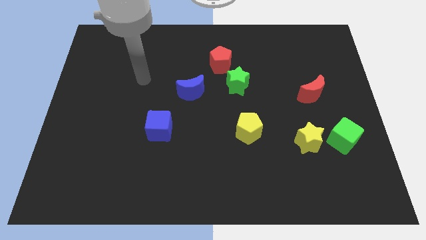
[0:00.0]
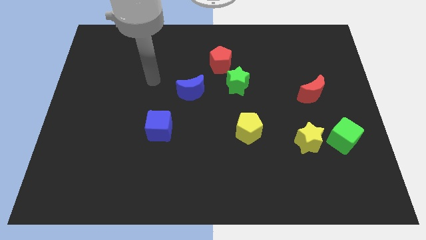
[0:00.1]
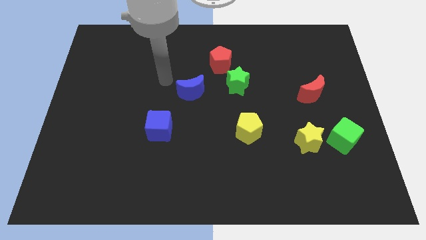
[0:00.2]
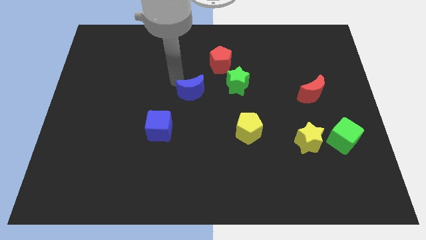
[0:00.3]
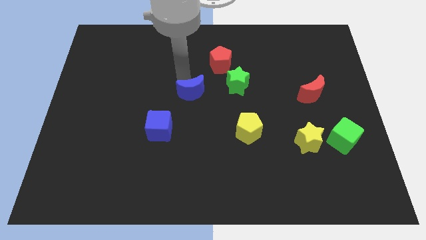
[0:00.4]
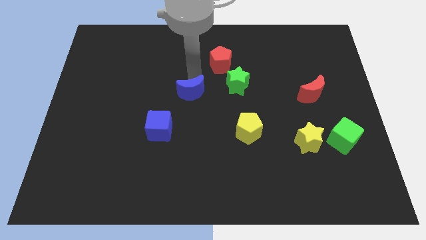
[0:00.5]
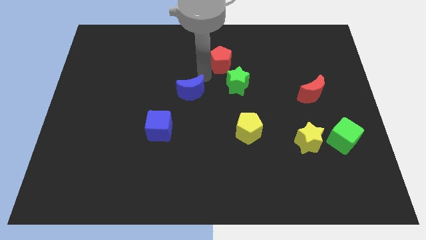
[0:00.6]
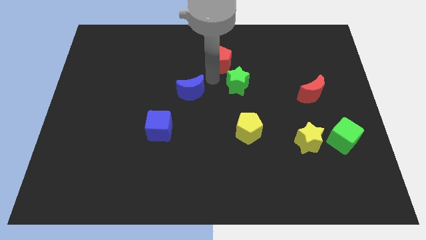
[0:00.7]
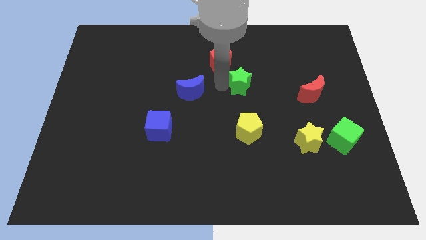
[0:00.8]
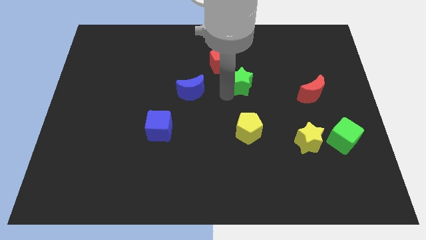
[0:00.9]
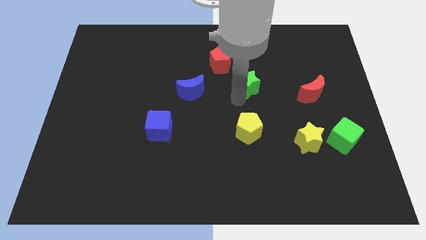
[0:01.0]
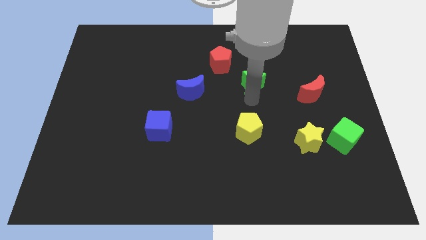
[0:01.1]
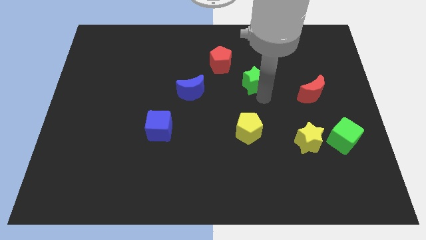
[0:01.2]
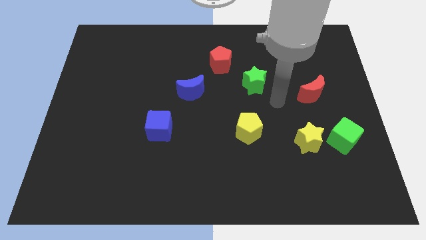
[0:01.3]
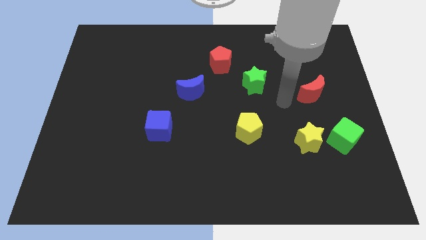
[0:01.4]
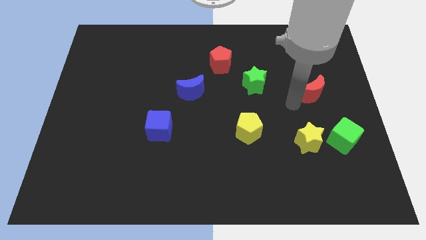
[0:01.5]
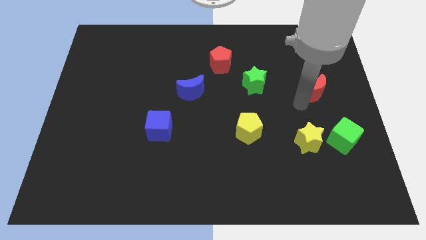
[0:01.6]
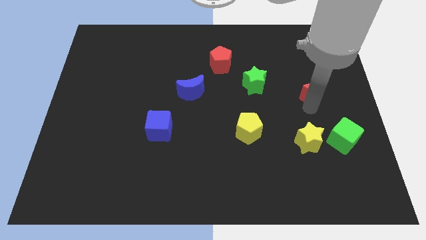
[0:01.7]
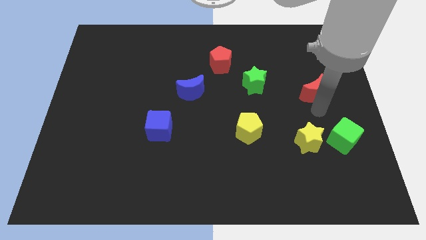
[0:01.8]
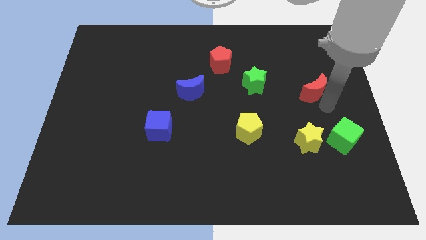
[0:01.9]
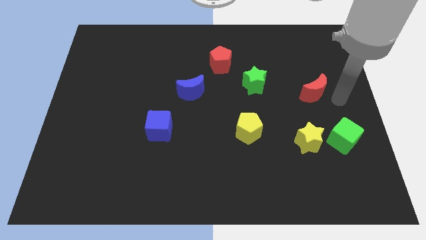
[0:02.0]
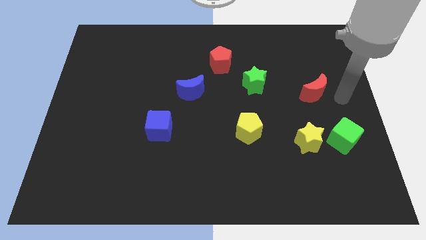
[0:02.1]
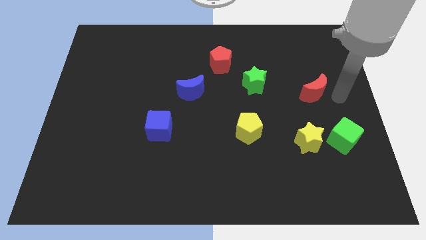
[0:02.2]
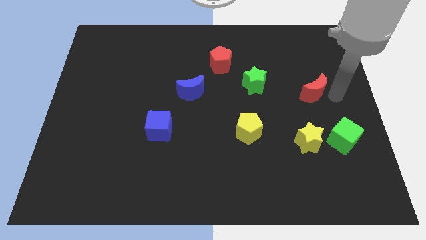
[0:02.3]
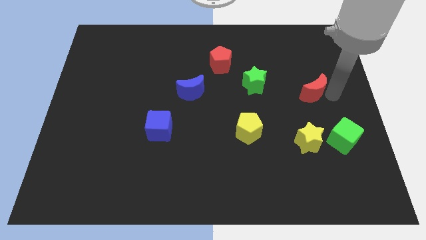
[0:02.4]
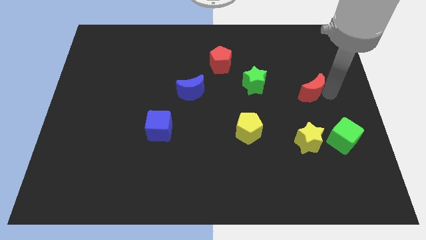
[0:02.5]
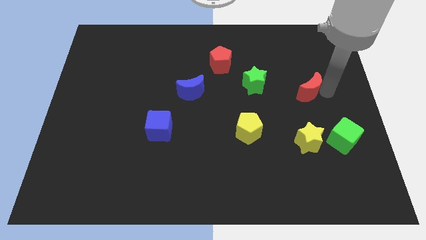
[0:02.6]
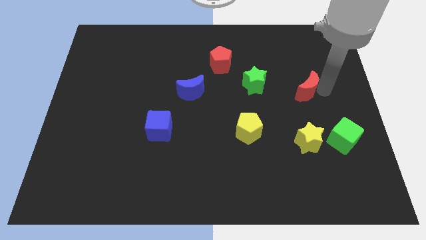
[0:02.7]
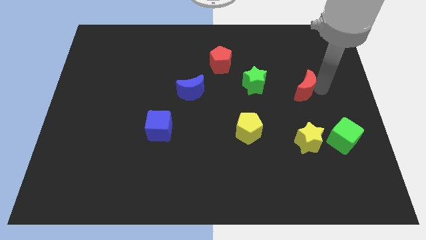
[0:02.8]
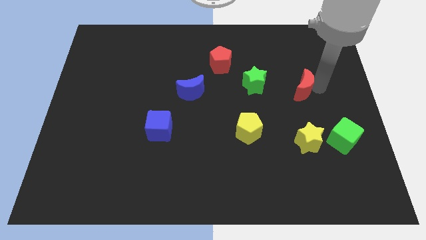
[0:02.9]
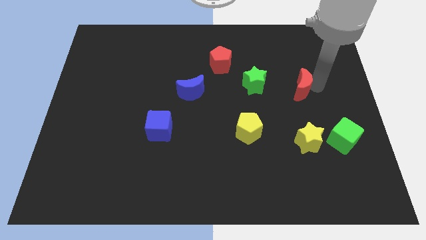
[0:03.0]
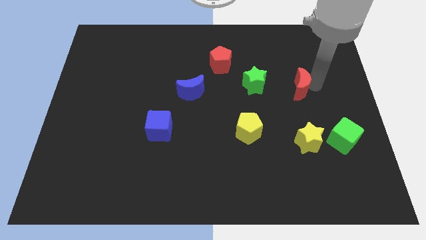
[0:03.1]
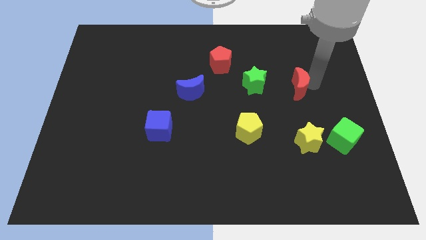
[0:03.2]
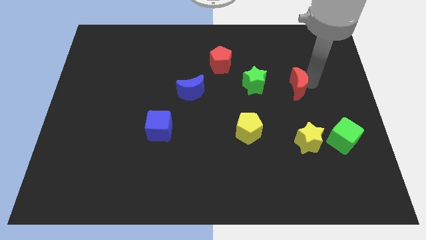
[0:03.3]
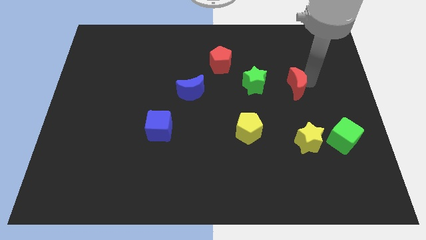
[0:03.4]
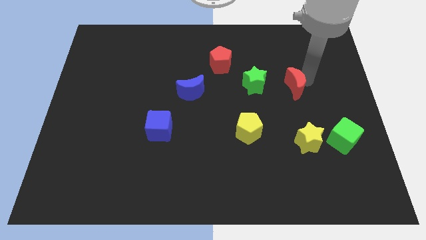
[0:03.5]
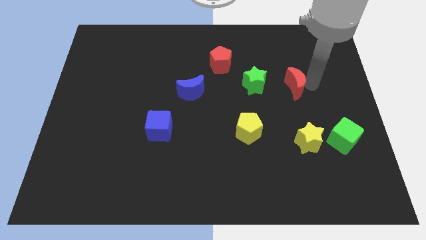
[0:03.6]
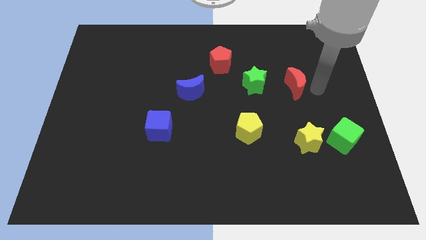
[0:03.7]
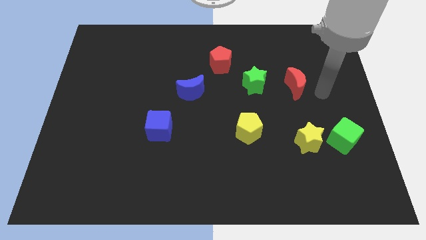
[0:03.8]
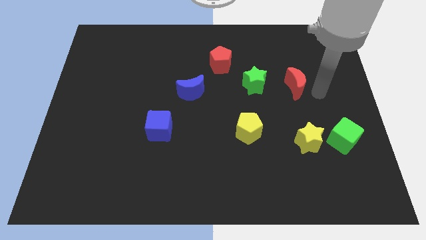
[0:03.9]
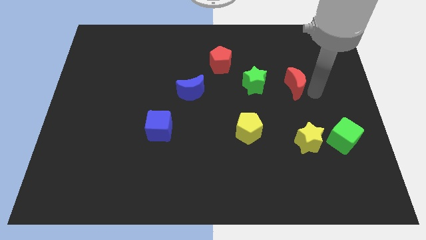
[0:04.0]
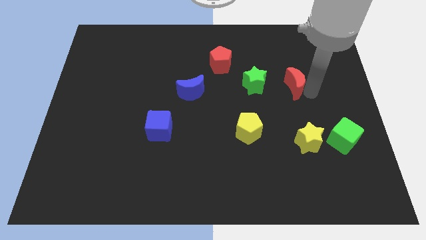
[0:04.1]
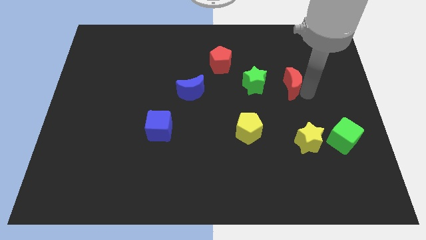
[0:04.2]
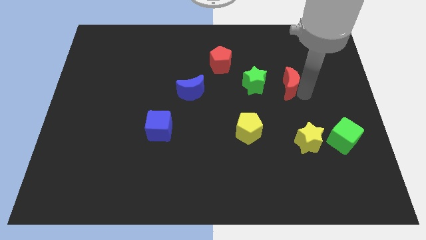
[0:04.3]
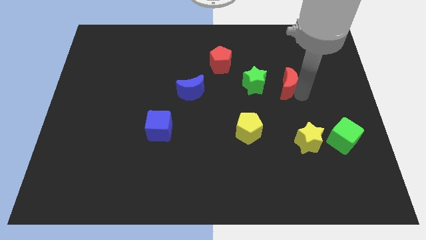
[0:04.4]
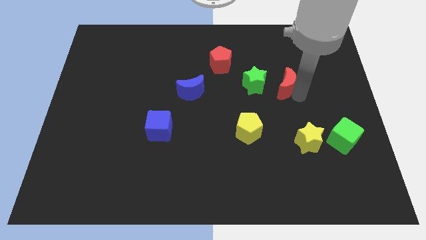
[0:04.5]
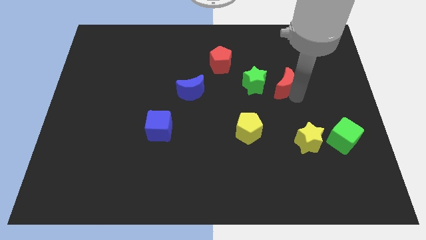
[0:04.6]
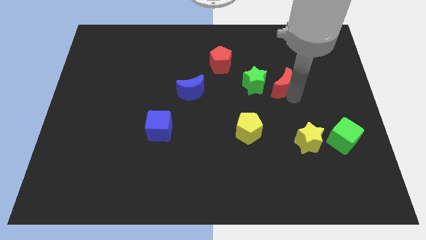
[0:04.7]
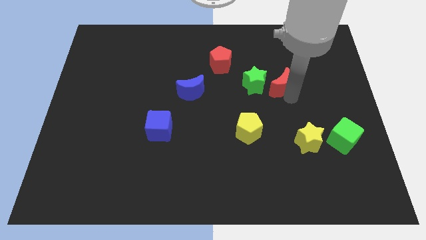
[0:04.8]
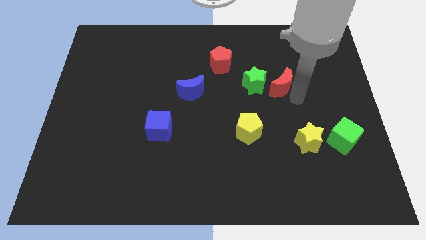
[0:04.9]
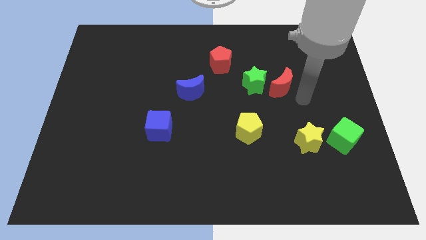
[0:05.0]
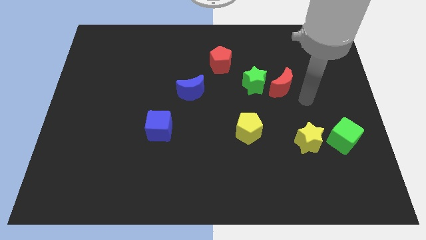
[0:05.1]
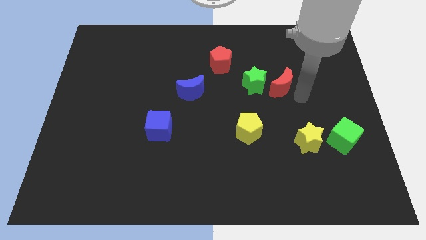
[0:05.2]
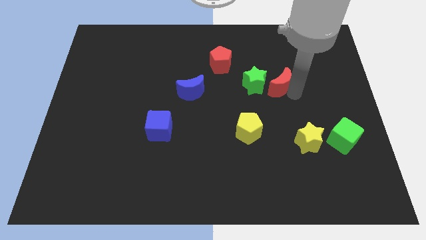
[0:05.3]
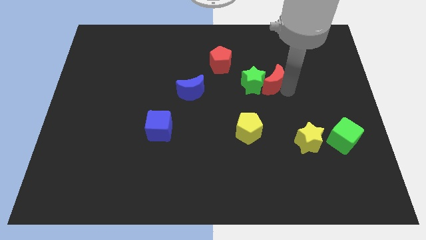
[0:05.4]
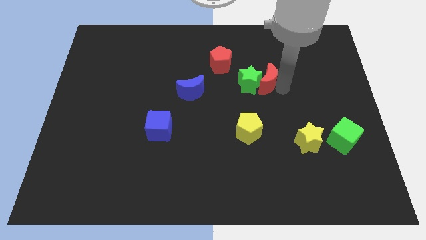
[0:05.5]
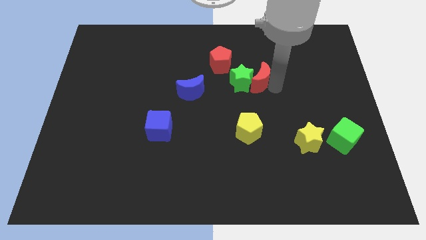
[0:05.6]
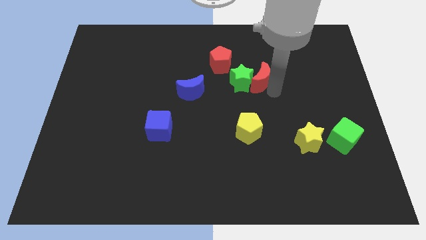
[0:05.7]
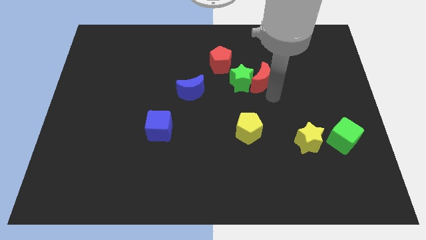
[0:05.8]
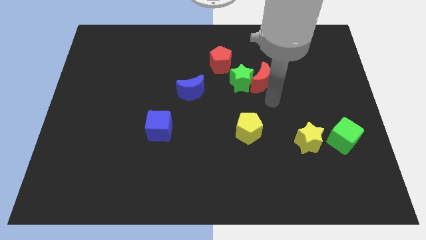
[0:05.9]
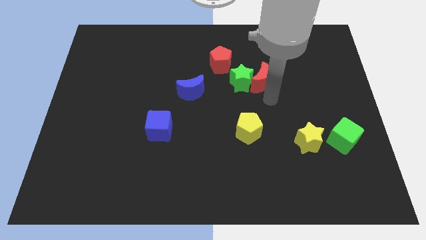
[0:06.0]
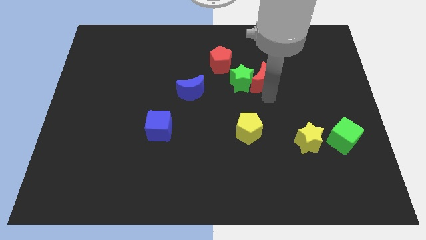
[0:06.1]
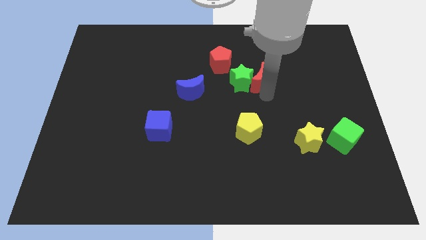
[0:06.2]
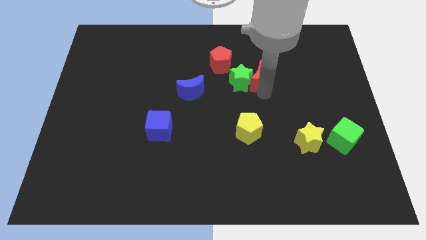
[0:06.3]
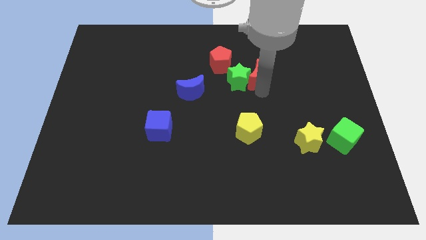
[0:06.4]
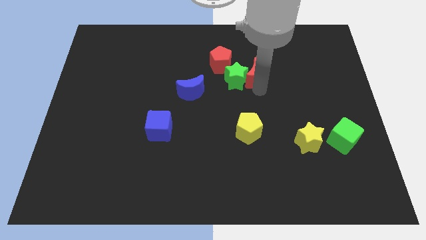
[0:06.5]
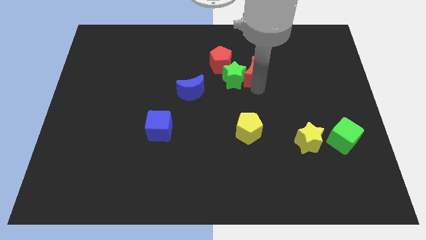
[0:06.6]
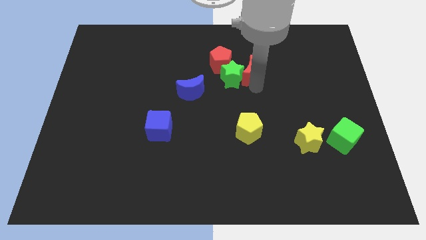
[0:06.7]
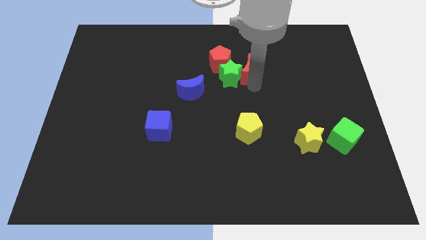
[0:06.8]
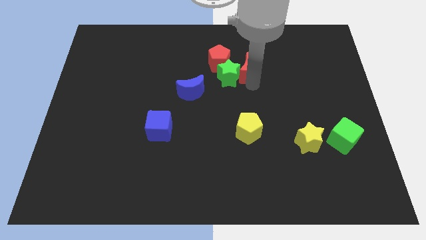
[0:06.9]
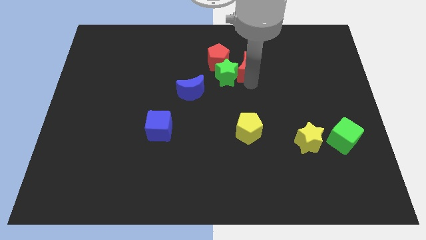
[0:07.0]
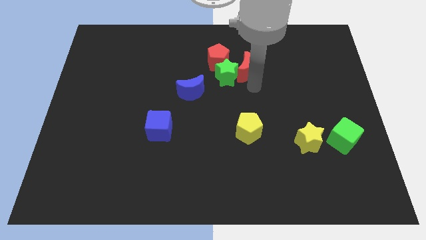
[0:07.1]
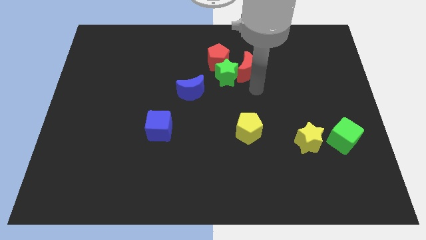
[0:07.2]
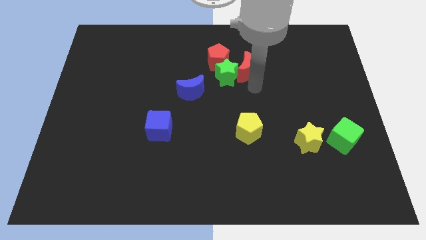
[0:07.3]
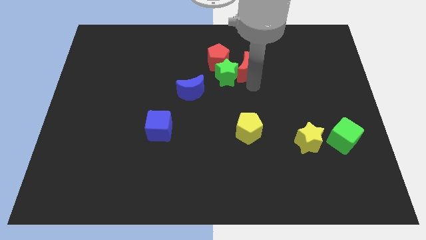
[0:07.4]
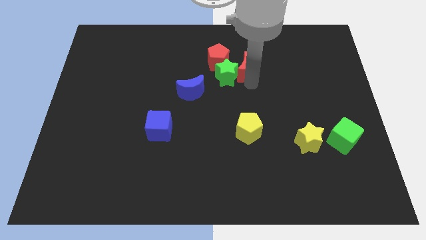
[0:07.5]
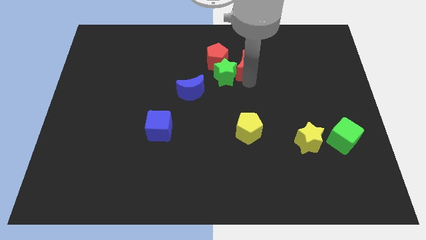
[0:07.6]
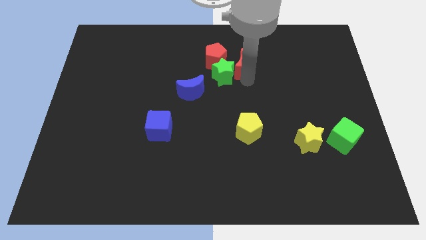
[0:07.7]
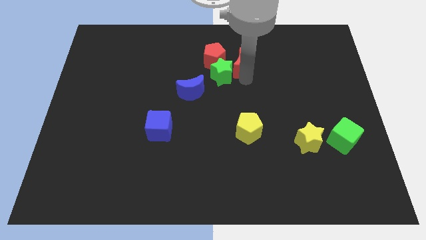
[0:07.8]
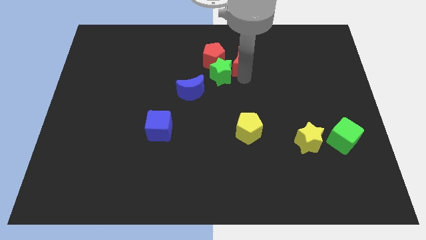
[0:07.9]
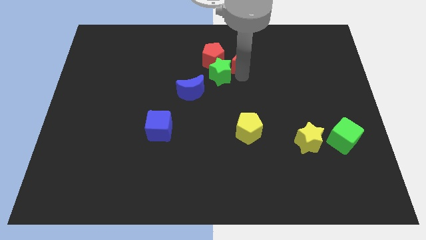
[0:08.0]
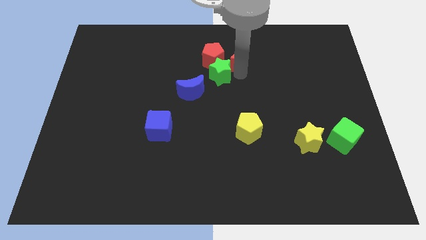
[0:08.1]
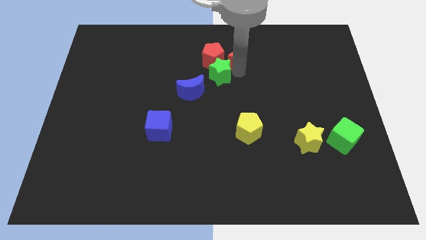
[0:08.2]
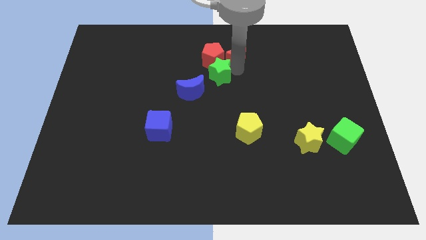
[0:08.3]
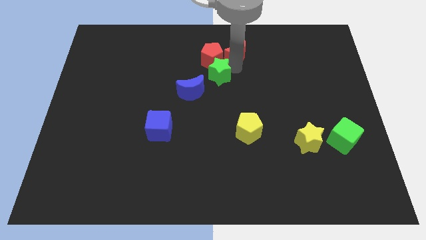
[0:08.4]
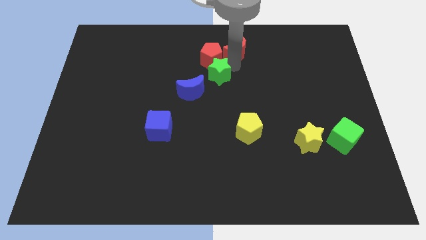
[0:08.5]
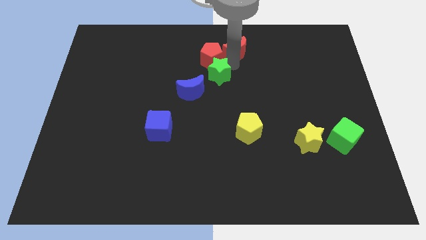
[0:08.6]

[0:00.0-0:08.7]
move the red moon to the top side
